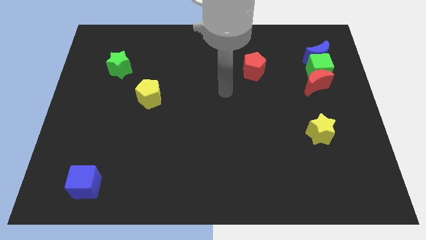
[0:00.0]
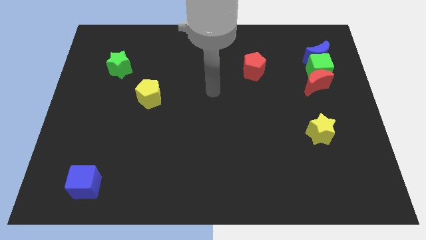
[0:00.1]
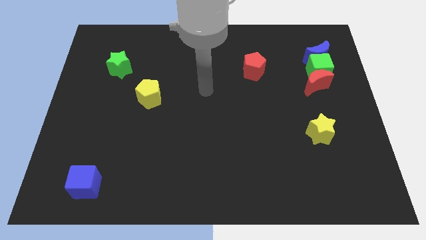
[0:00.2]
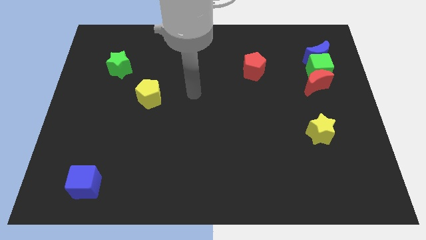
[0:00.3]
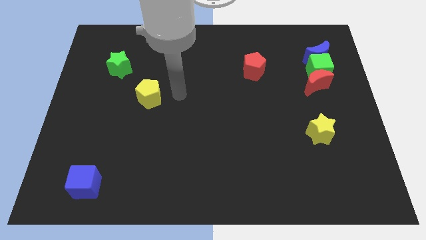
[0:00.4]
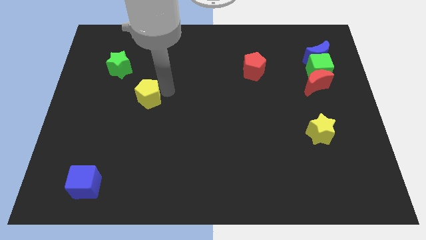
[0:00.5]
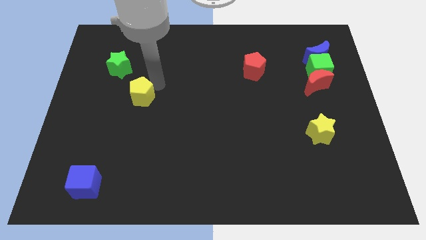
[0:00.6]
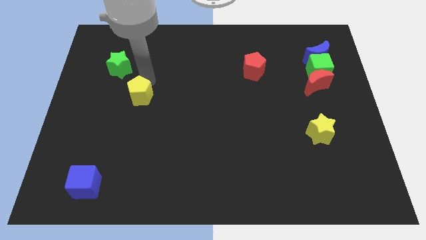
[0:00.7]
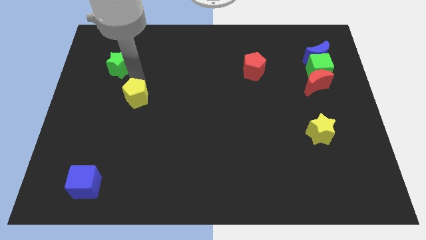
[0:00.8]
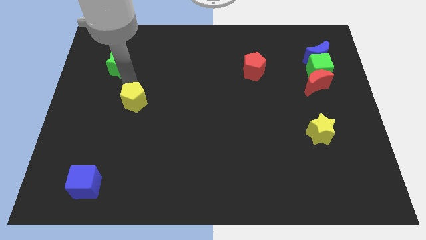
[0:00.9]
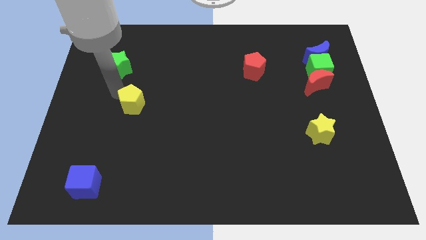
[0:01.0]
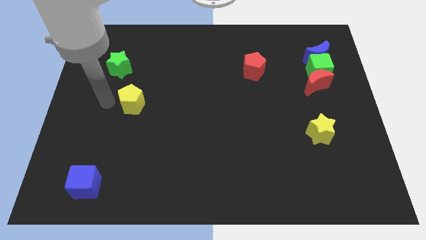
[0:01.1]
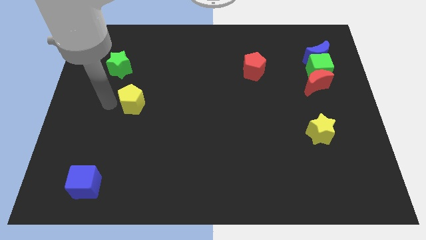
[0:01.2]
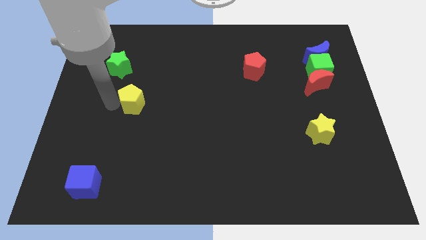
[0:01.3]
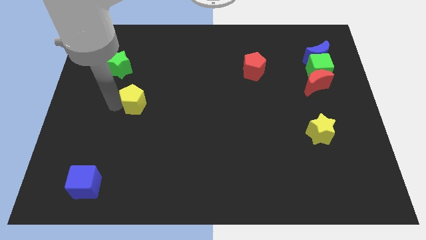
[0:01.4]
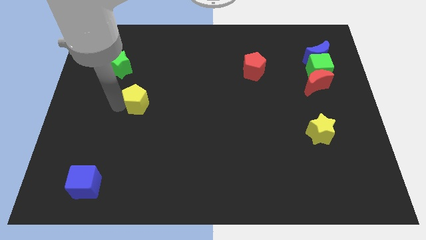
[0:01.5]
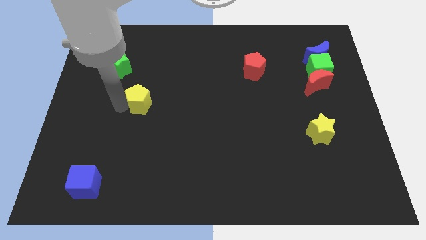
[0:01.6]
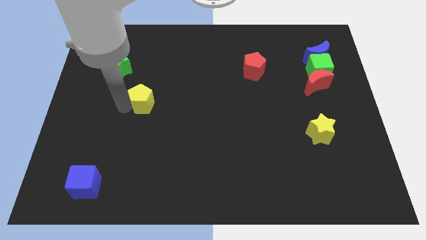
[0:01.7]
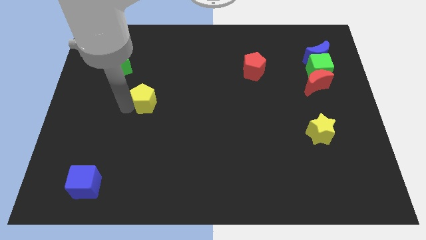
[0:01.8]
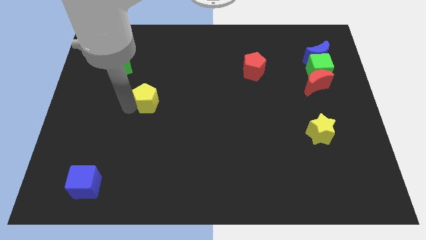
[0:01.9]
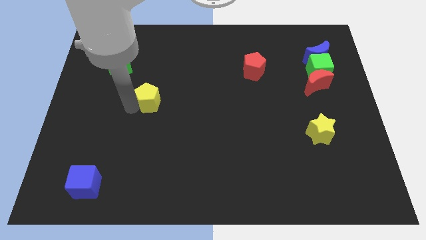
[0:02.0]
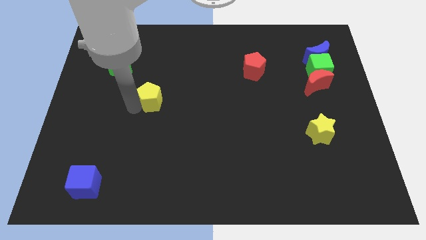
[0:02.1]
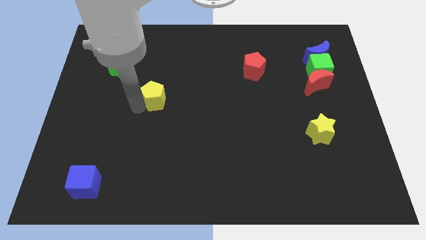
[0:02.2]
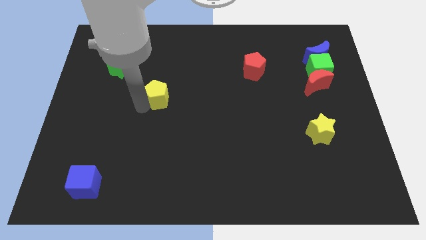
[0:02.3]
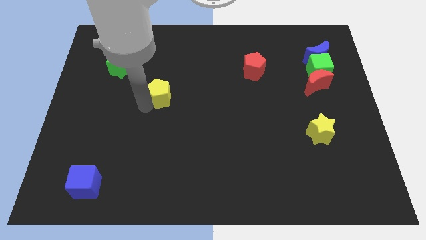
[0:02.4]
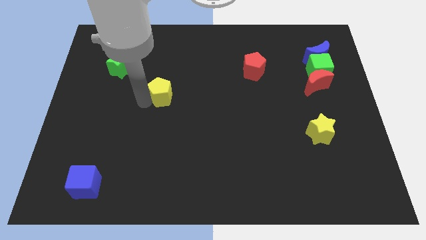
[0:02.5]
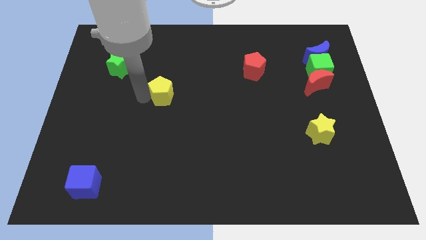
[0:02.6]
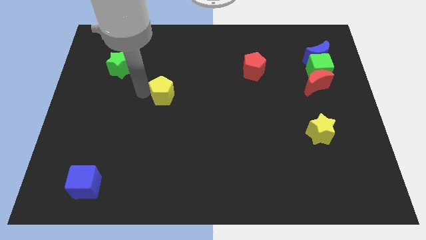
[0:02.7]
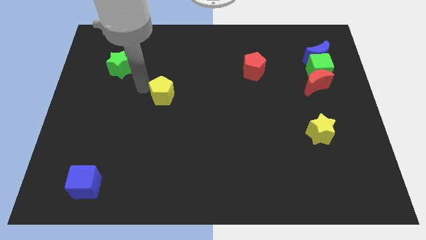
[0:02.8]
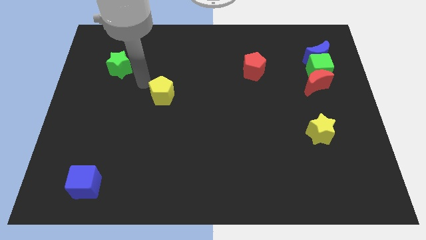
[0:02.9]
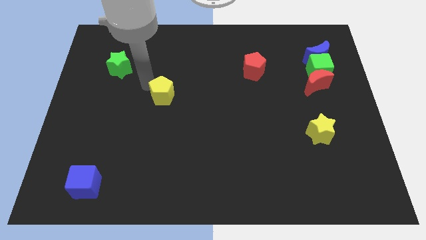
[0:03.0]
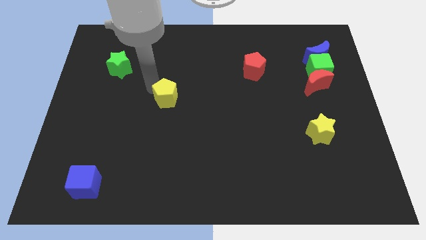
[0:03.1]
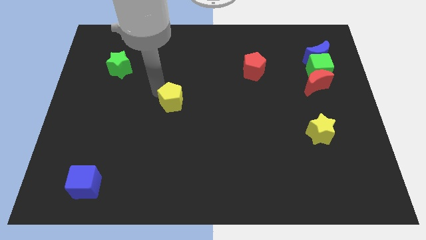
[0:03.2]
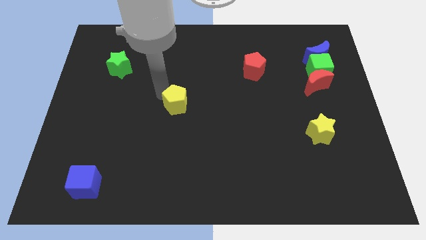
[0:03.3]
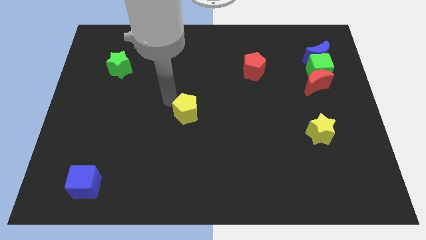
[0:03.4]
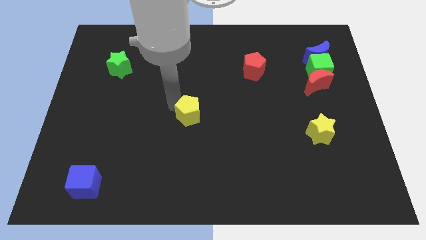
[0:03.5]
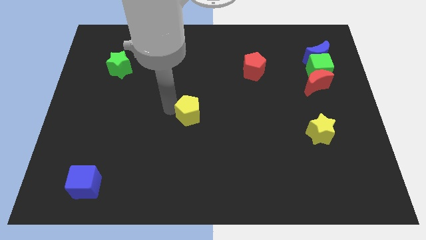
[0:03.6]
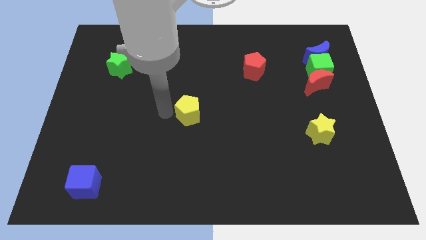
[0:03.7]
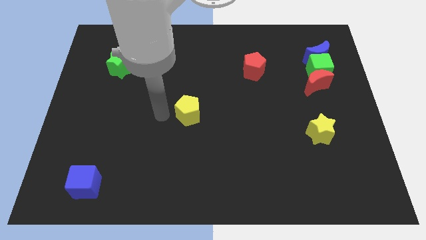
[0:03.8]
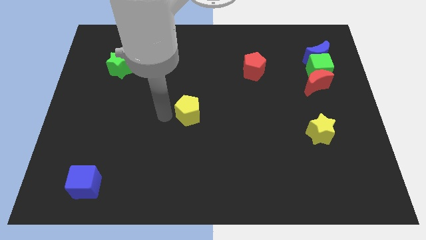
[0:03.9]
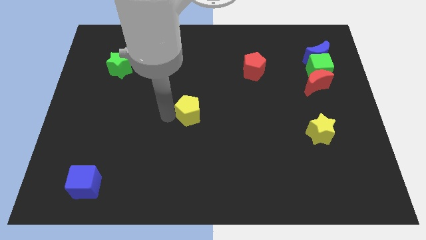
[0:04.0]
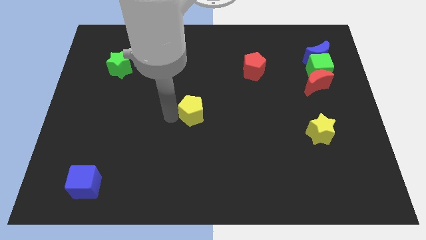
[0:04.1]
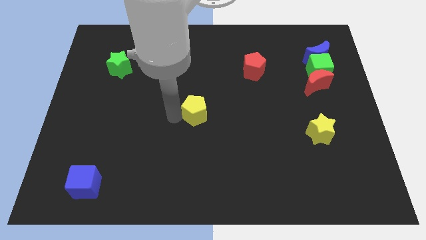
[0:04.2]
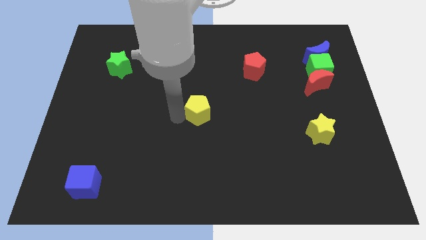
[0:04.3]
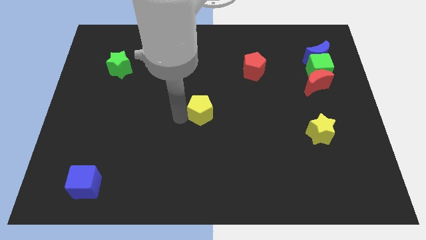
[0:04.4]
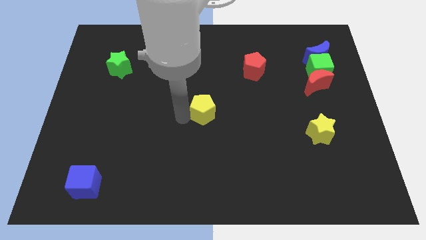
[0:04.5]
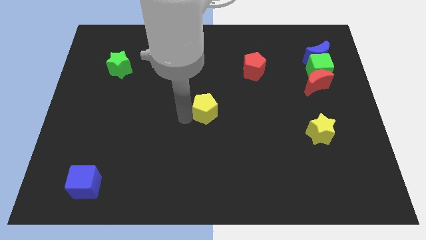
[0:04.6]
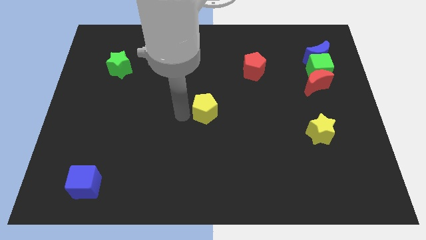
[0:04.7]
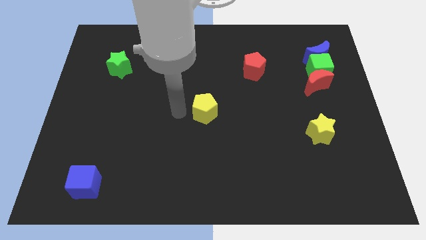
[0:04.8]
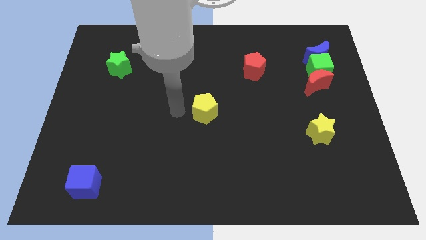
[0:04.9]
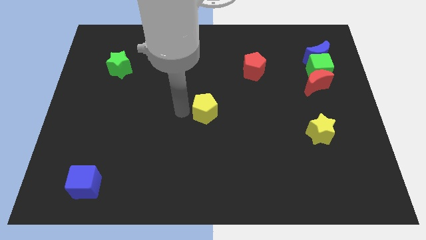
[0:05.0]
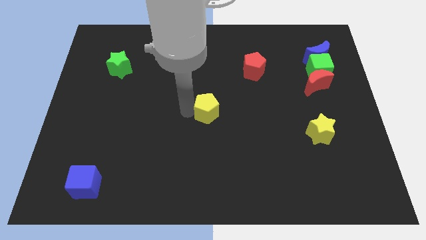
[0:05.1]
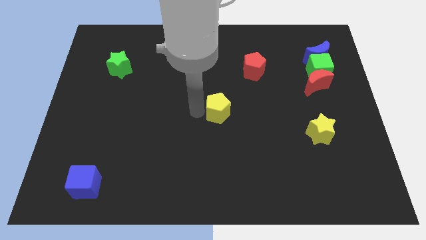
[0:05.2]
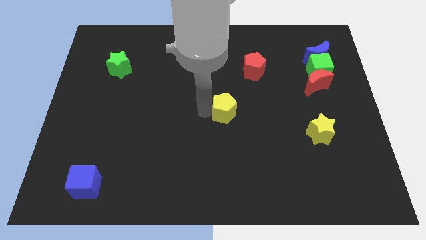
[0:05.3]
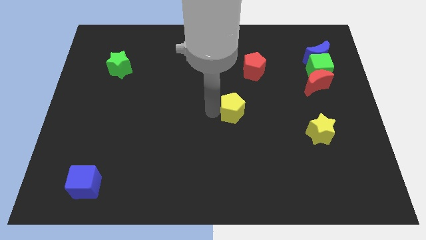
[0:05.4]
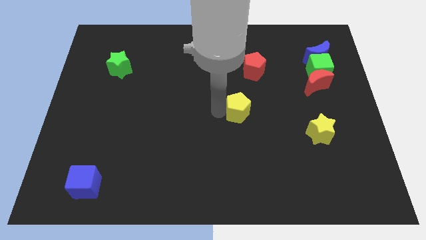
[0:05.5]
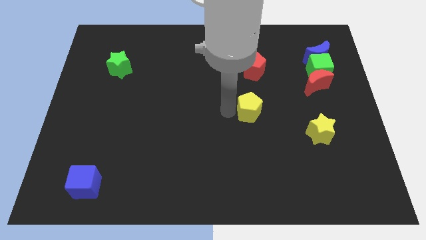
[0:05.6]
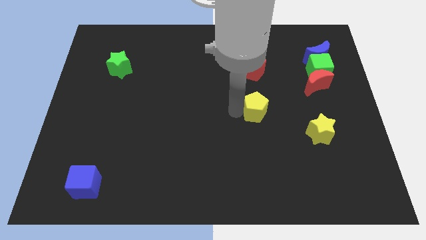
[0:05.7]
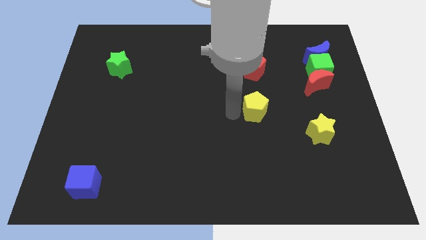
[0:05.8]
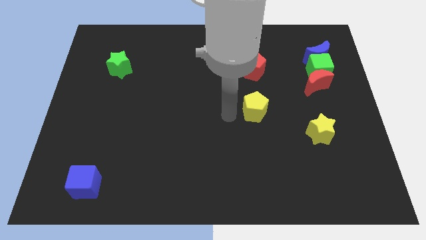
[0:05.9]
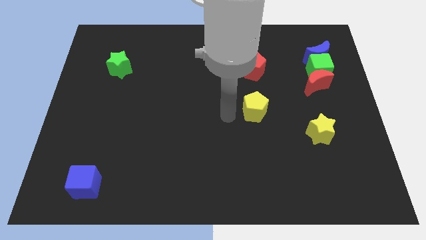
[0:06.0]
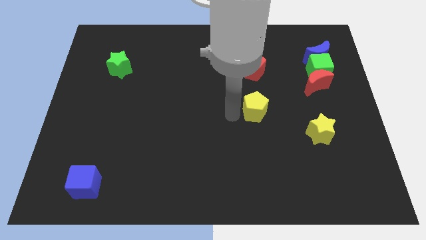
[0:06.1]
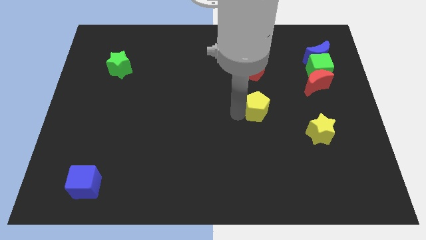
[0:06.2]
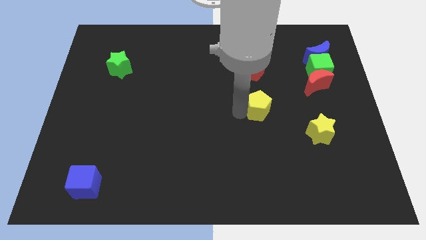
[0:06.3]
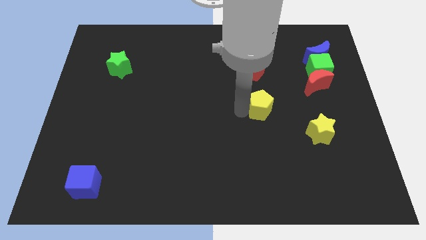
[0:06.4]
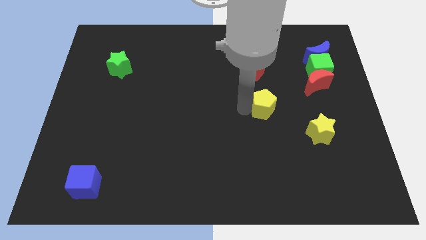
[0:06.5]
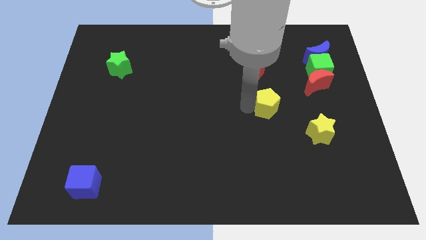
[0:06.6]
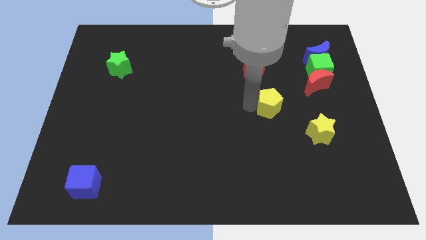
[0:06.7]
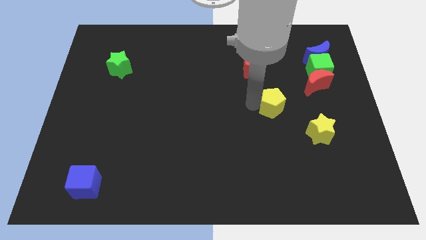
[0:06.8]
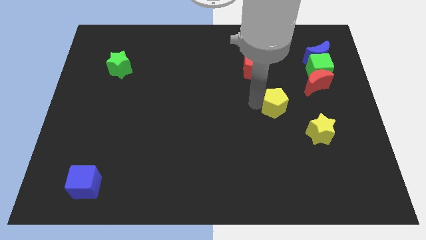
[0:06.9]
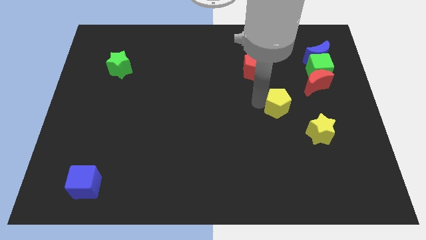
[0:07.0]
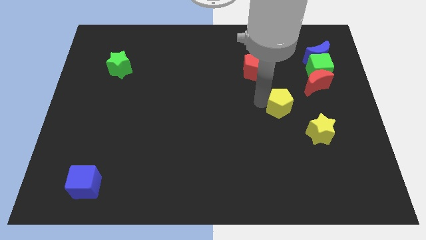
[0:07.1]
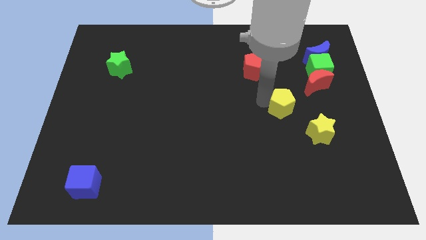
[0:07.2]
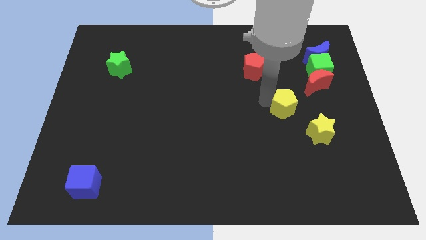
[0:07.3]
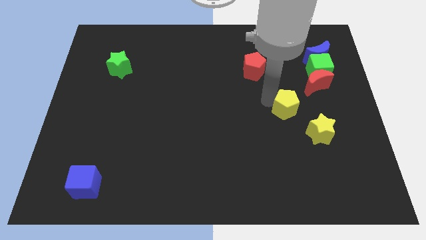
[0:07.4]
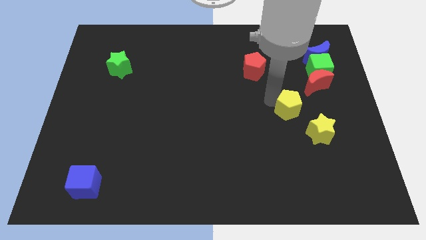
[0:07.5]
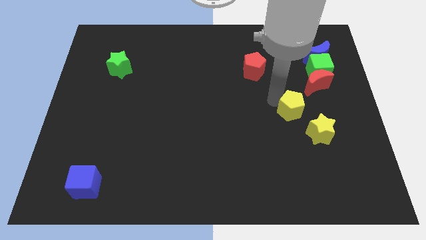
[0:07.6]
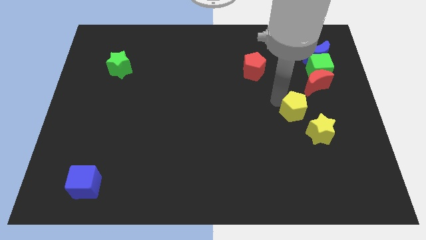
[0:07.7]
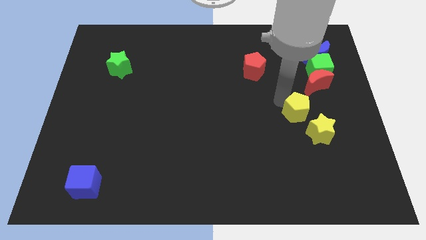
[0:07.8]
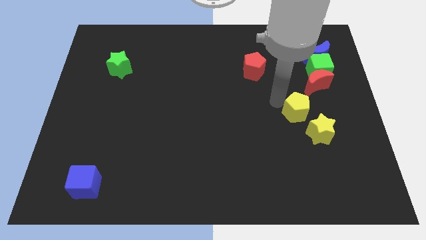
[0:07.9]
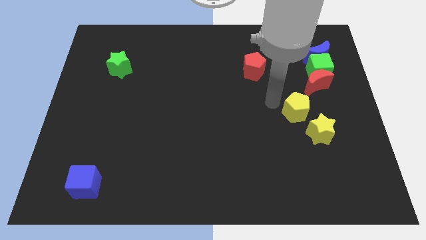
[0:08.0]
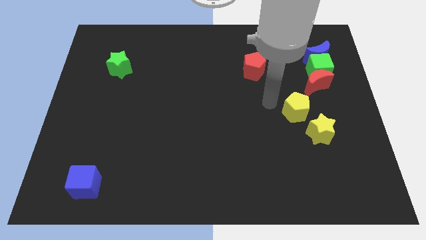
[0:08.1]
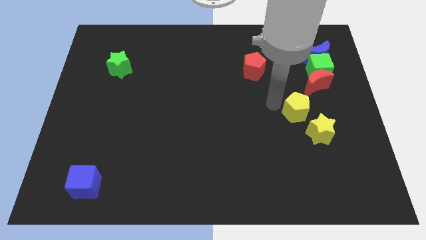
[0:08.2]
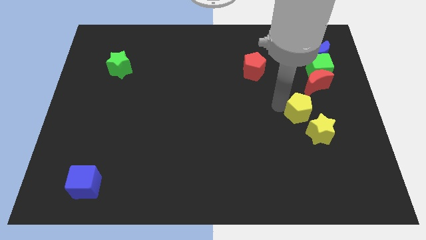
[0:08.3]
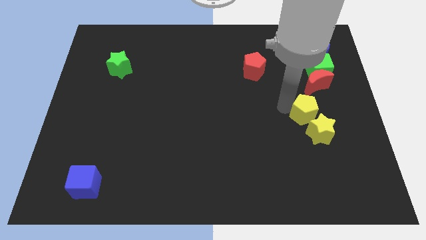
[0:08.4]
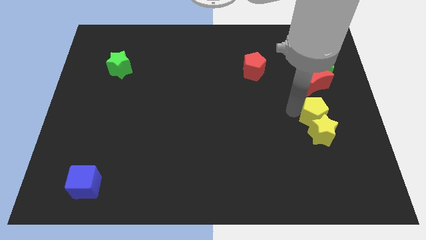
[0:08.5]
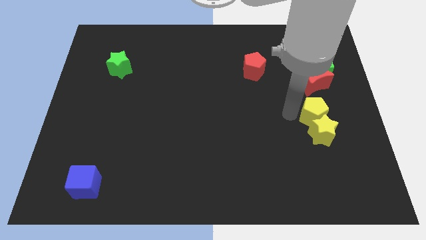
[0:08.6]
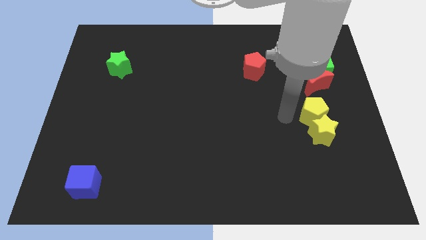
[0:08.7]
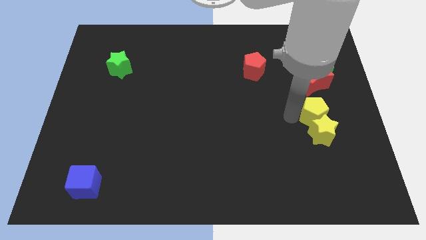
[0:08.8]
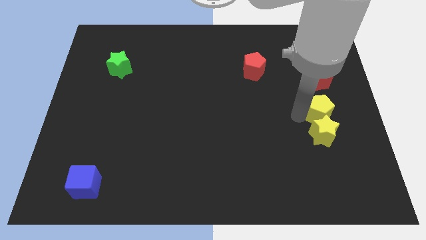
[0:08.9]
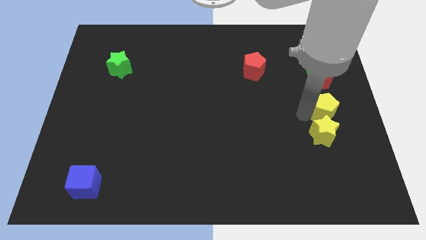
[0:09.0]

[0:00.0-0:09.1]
push the yellow pentagon to the center right
